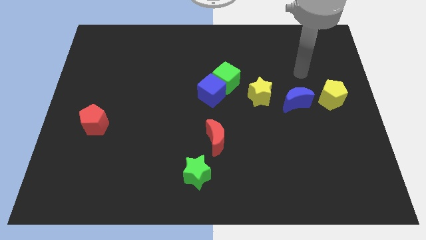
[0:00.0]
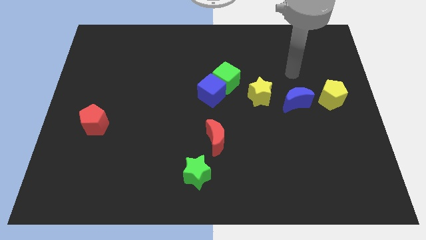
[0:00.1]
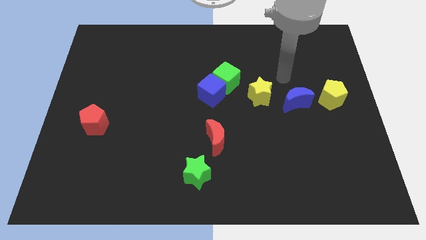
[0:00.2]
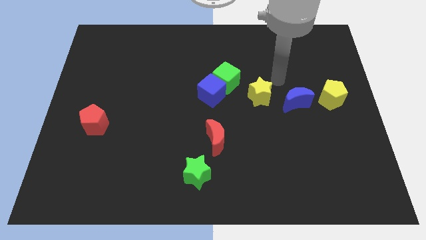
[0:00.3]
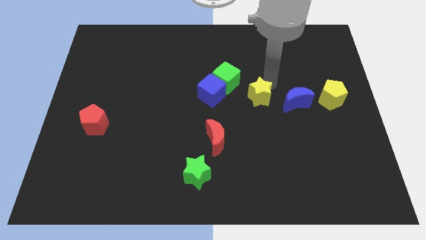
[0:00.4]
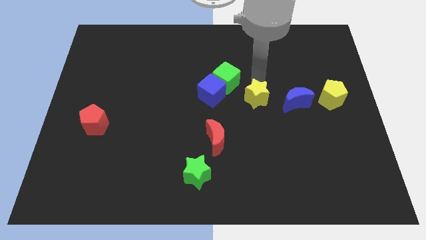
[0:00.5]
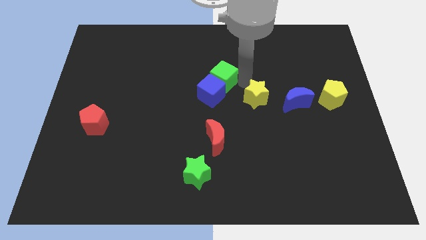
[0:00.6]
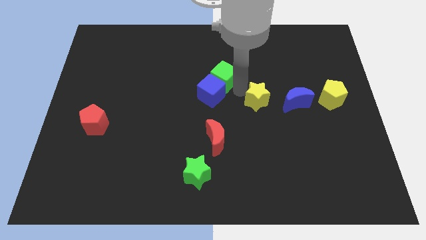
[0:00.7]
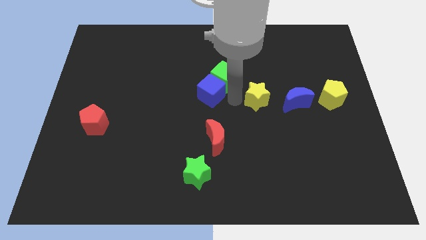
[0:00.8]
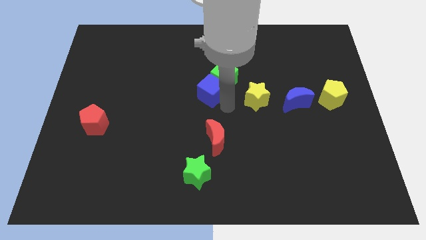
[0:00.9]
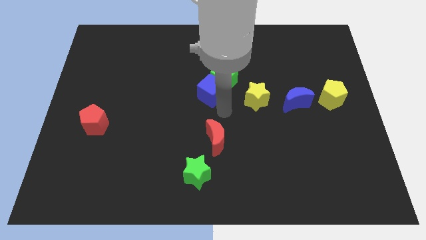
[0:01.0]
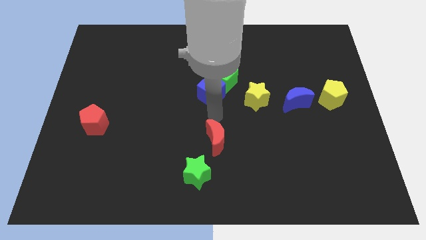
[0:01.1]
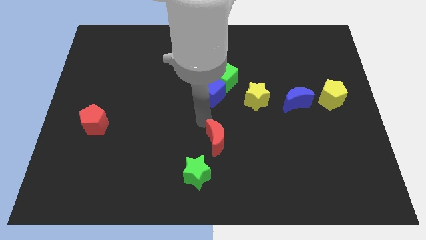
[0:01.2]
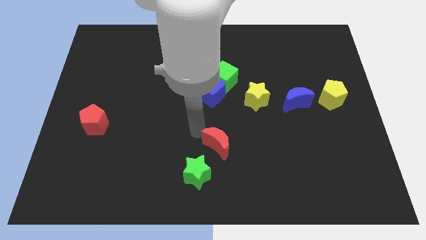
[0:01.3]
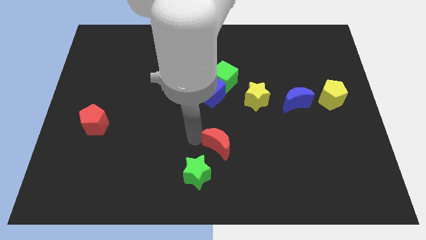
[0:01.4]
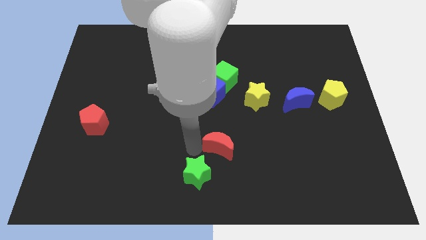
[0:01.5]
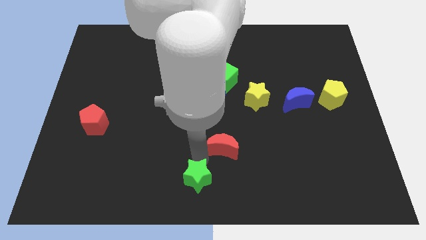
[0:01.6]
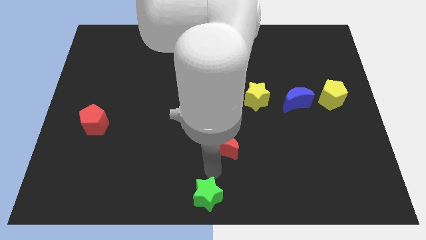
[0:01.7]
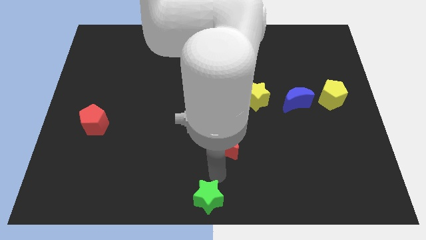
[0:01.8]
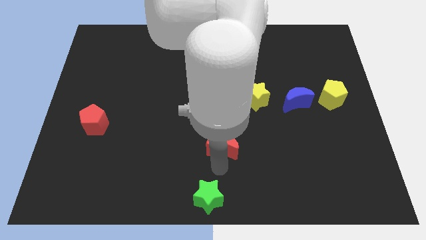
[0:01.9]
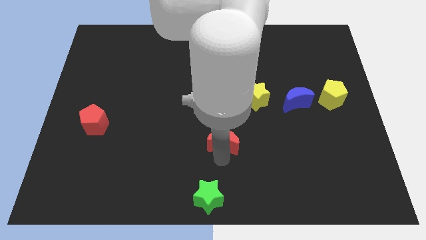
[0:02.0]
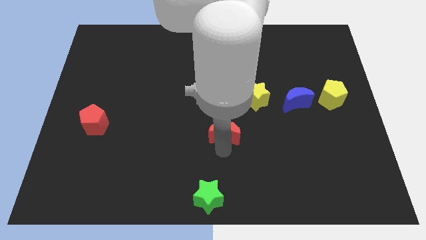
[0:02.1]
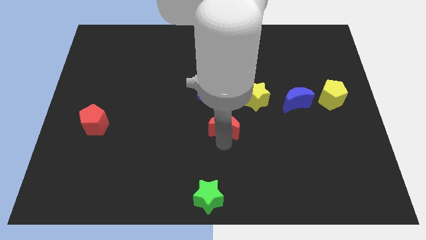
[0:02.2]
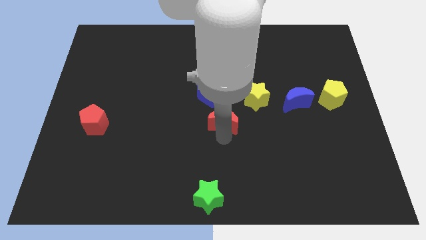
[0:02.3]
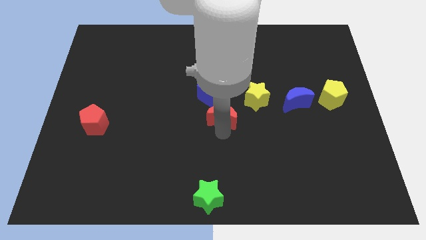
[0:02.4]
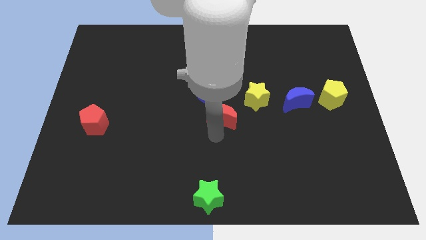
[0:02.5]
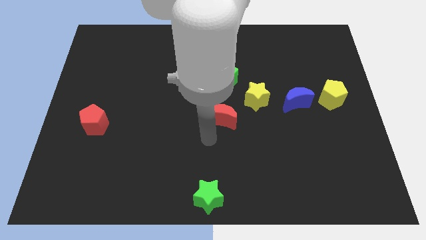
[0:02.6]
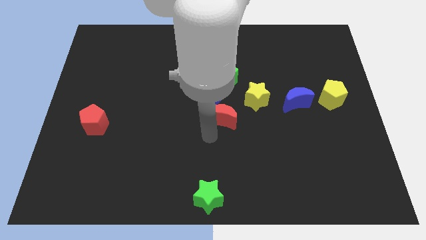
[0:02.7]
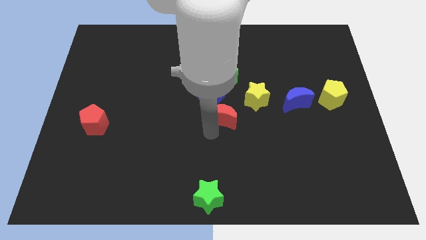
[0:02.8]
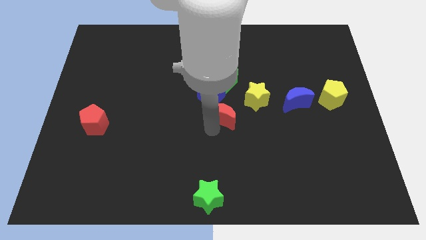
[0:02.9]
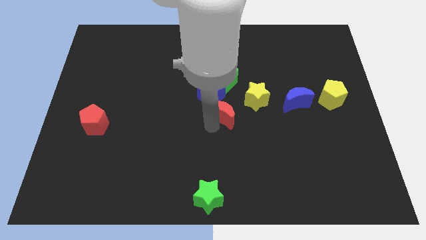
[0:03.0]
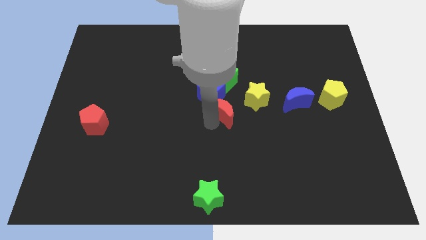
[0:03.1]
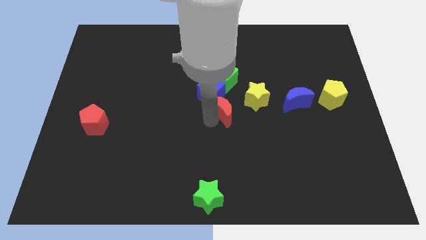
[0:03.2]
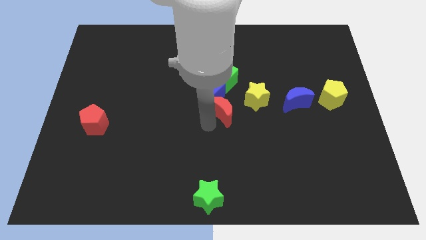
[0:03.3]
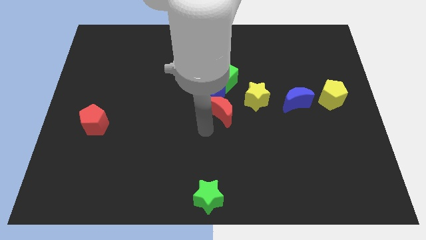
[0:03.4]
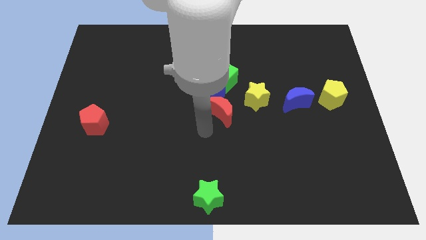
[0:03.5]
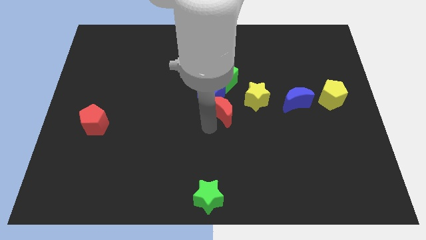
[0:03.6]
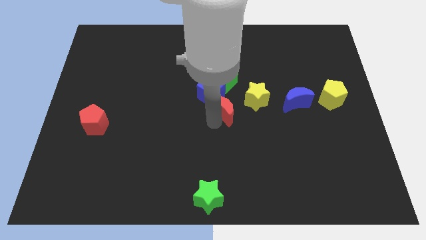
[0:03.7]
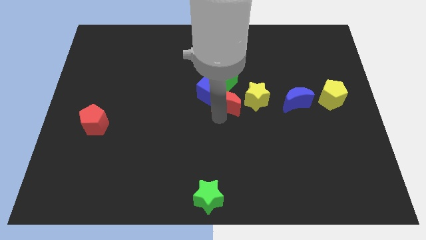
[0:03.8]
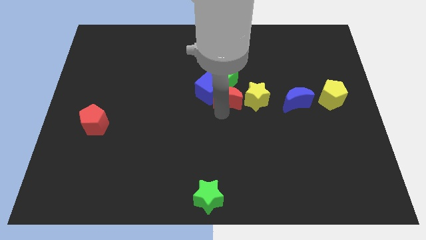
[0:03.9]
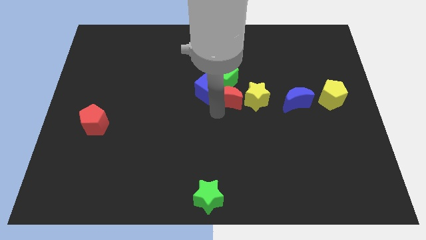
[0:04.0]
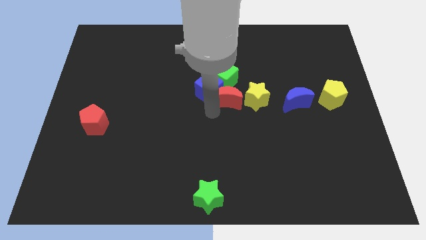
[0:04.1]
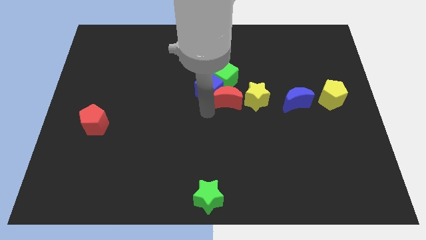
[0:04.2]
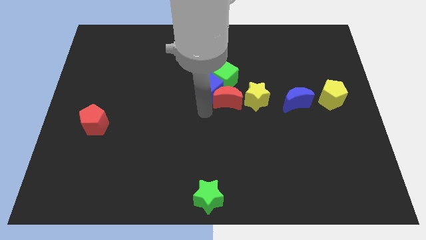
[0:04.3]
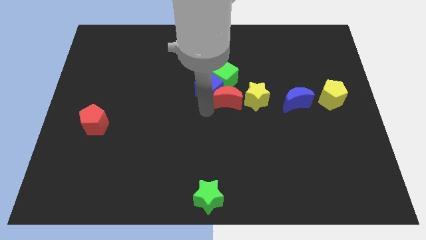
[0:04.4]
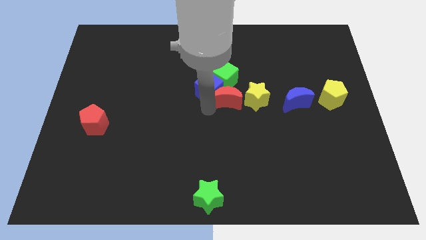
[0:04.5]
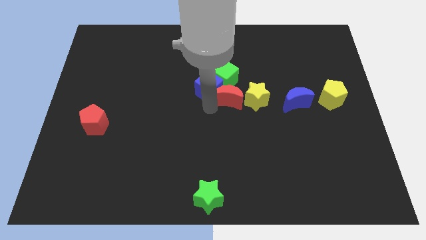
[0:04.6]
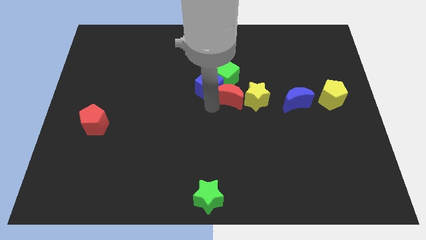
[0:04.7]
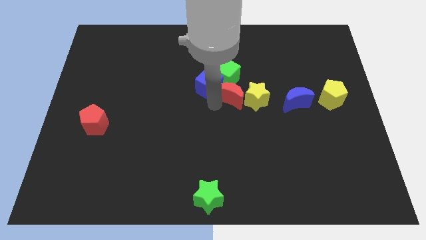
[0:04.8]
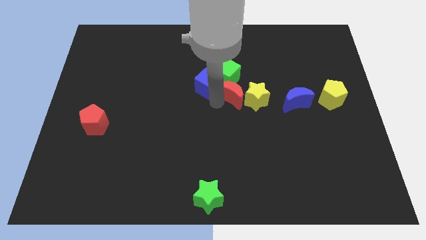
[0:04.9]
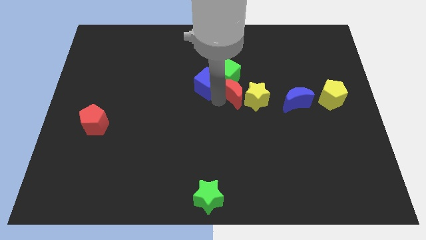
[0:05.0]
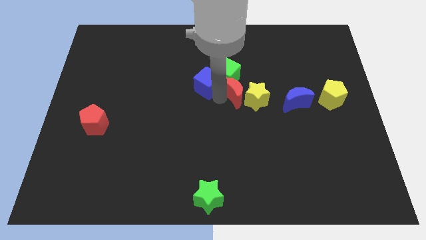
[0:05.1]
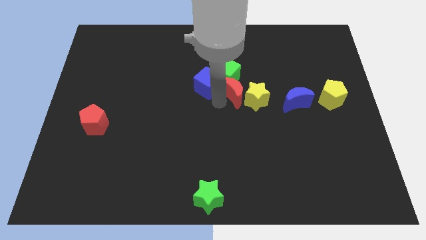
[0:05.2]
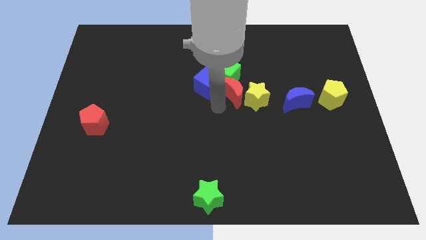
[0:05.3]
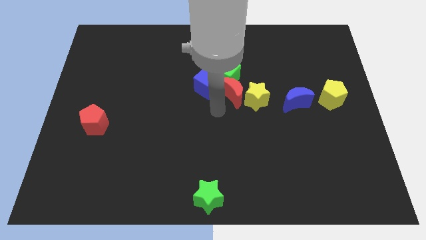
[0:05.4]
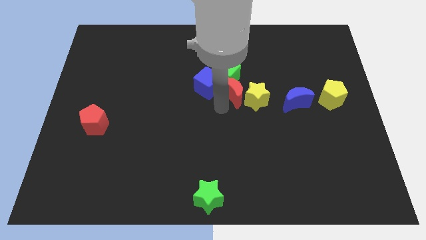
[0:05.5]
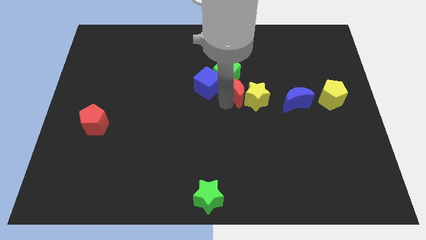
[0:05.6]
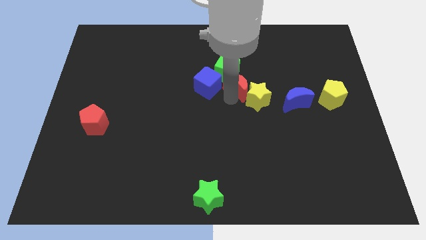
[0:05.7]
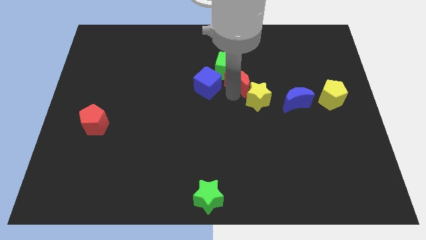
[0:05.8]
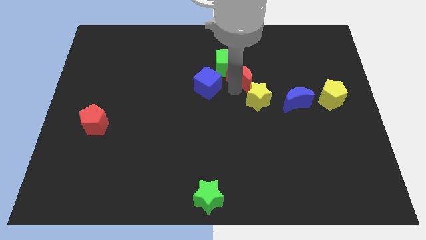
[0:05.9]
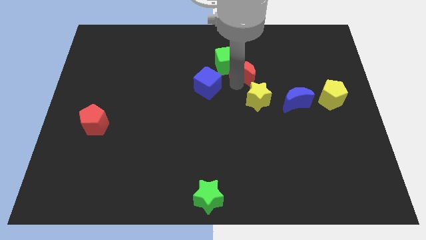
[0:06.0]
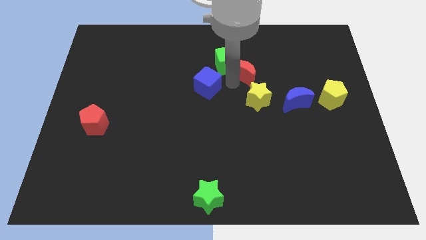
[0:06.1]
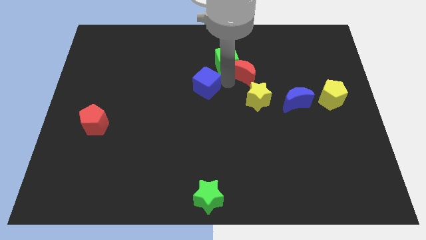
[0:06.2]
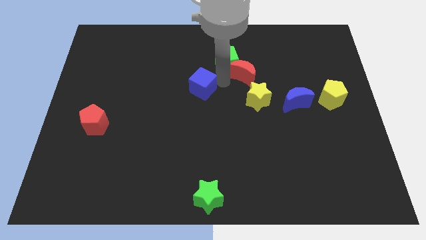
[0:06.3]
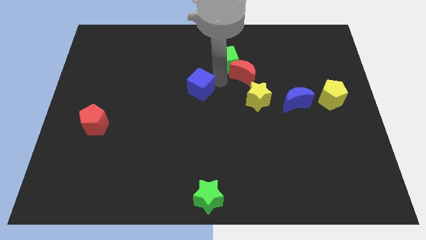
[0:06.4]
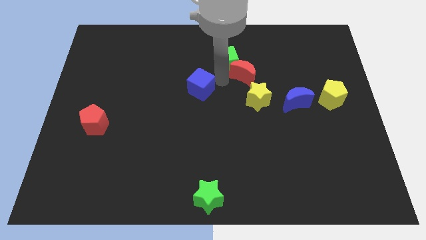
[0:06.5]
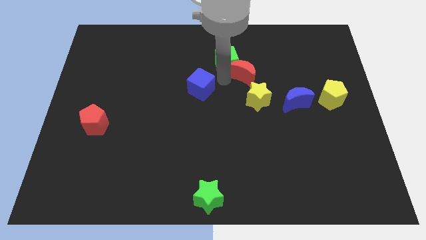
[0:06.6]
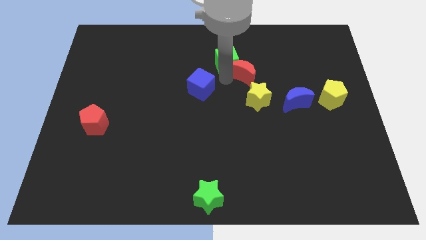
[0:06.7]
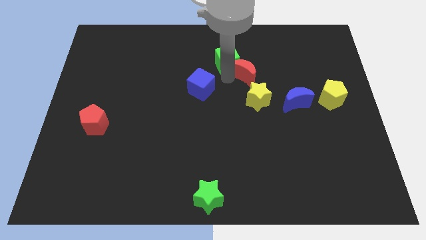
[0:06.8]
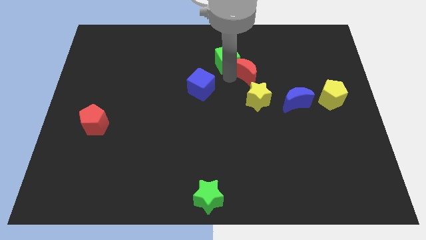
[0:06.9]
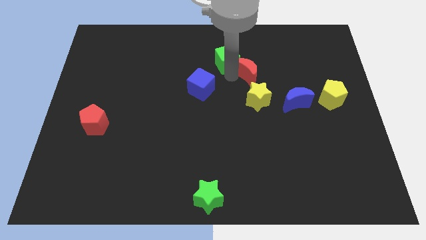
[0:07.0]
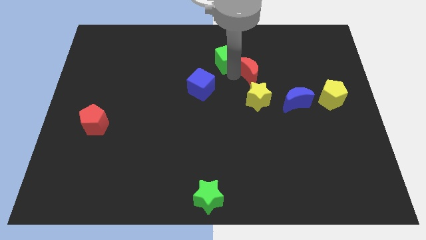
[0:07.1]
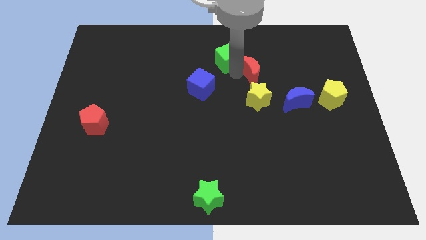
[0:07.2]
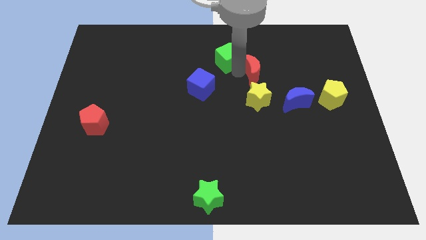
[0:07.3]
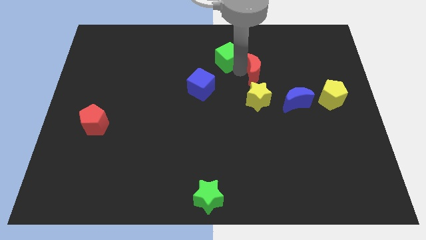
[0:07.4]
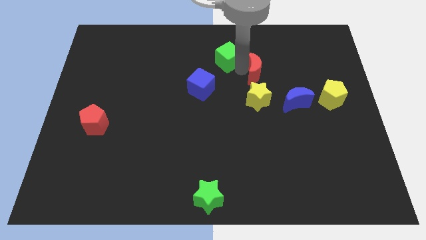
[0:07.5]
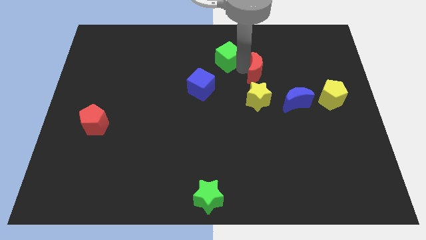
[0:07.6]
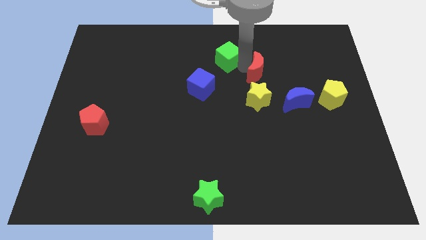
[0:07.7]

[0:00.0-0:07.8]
slide the red moon up and right
